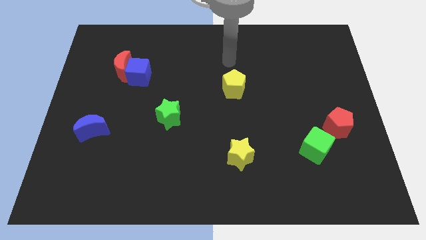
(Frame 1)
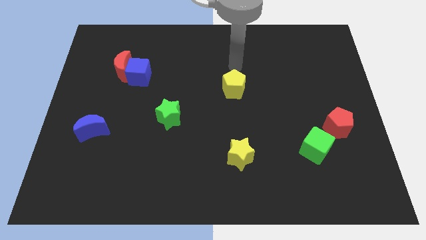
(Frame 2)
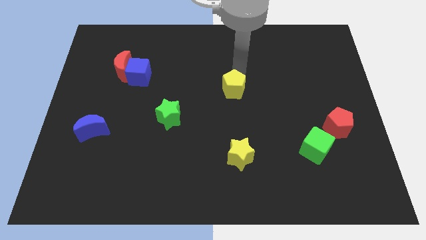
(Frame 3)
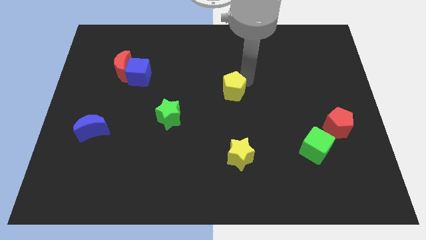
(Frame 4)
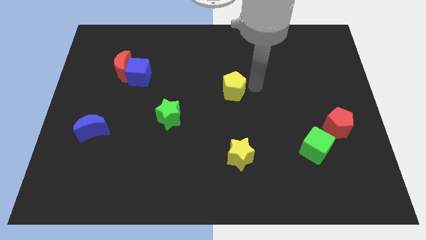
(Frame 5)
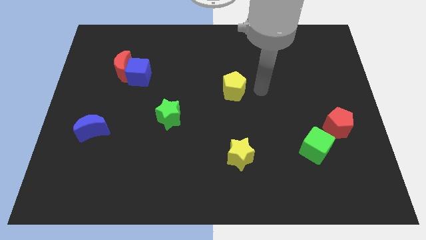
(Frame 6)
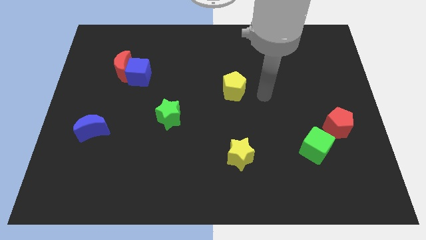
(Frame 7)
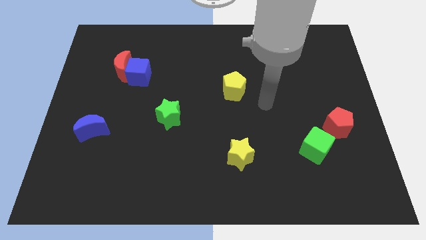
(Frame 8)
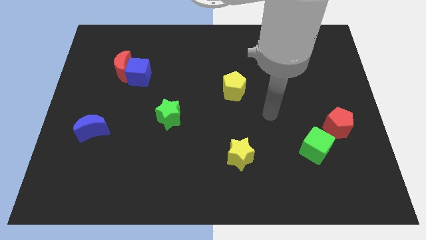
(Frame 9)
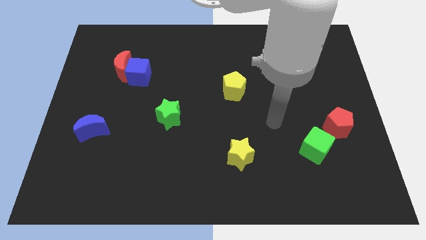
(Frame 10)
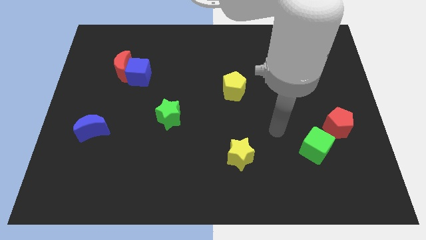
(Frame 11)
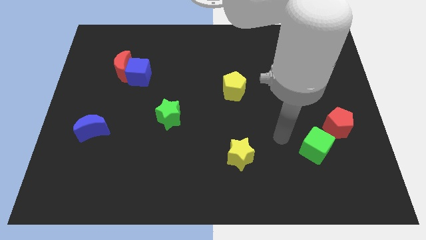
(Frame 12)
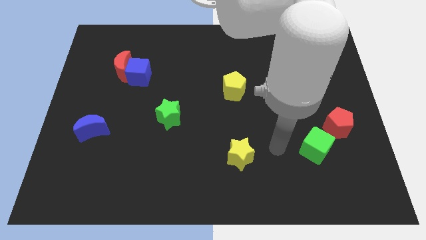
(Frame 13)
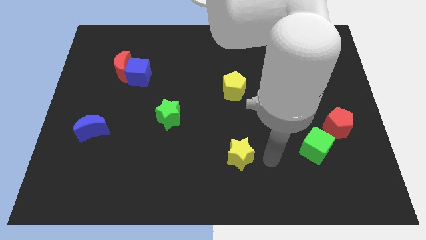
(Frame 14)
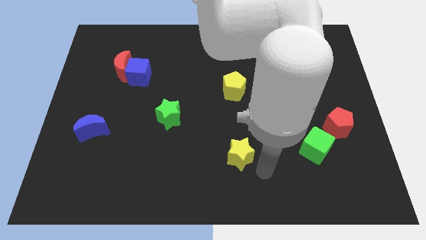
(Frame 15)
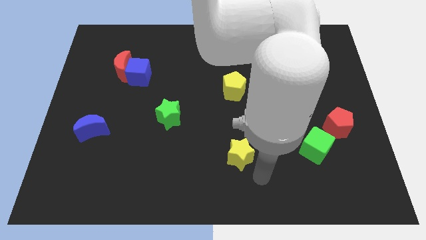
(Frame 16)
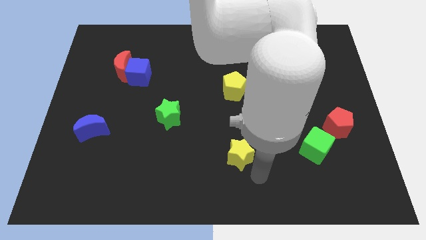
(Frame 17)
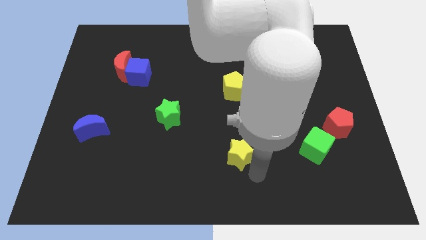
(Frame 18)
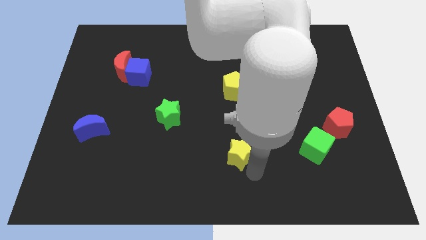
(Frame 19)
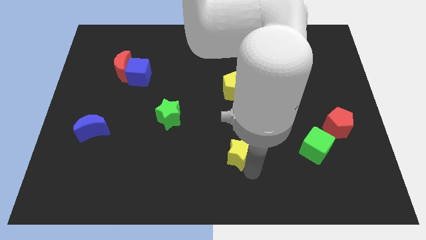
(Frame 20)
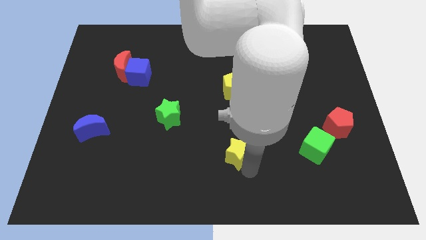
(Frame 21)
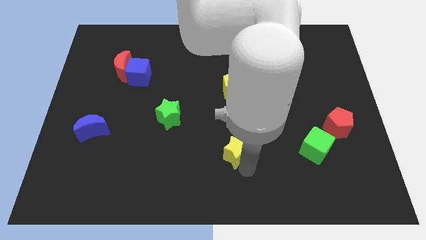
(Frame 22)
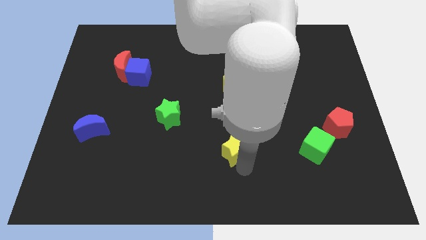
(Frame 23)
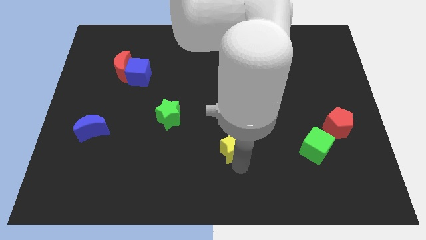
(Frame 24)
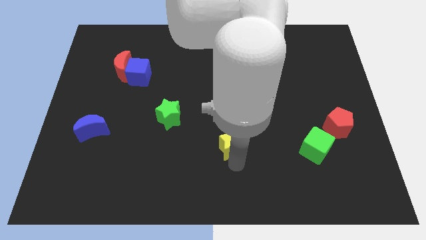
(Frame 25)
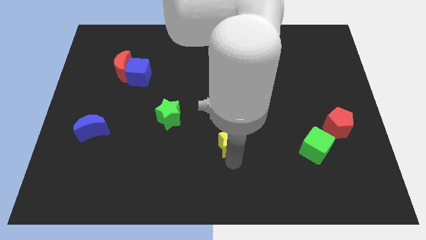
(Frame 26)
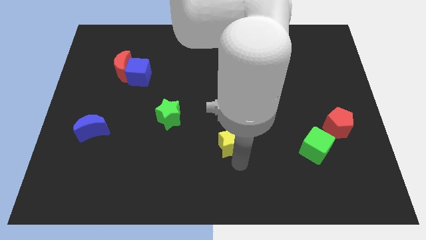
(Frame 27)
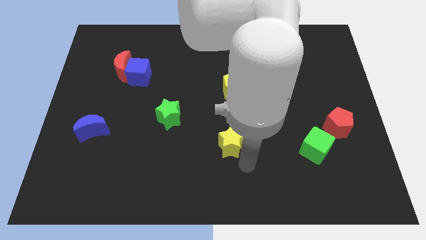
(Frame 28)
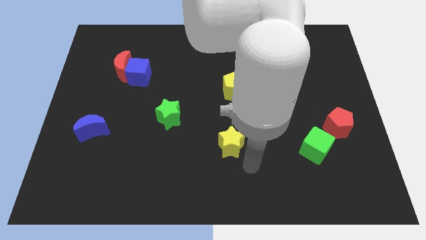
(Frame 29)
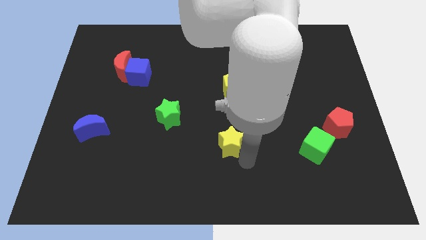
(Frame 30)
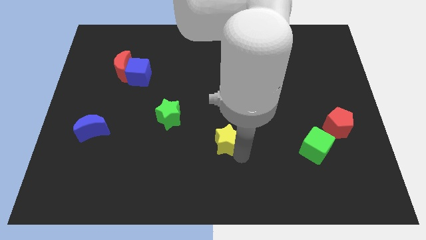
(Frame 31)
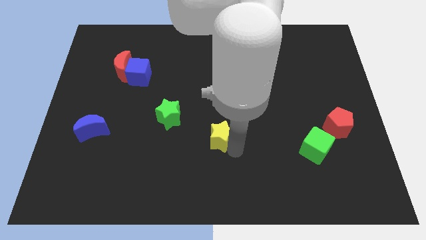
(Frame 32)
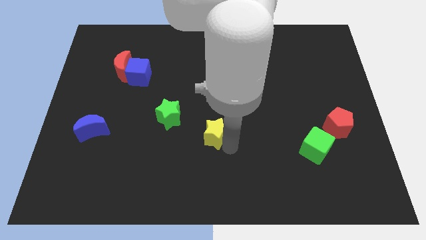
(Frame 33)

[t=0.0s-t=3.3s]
slide the yellow star diagonally up and to the left a little

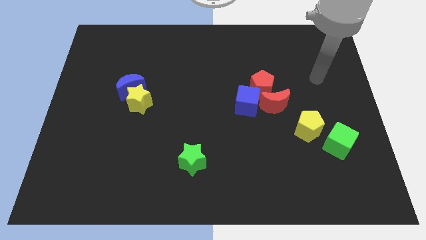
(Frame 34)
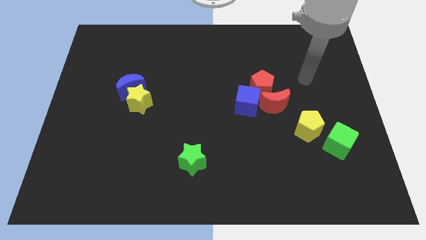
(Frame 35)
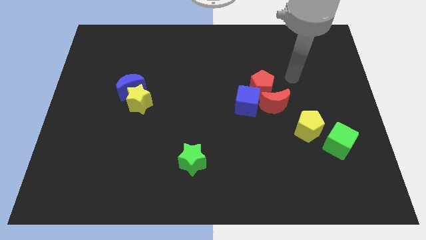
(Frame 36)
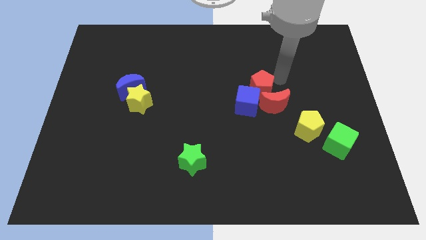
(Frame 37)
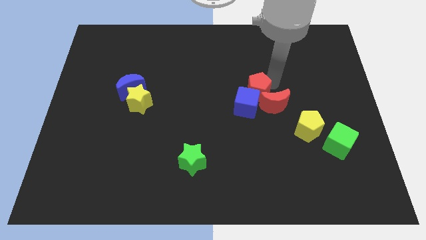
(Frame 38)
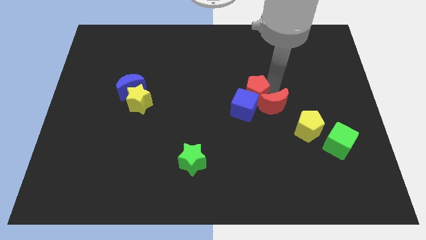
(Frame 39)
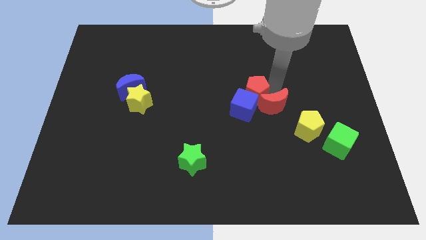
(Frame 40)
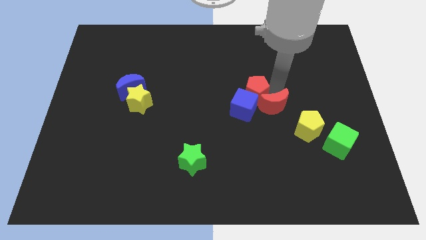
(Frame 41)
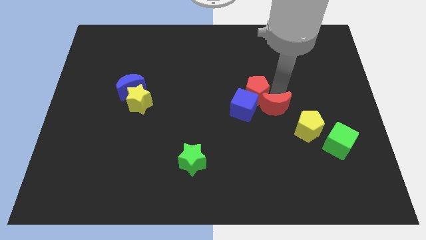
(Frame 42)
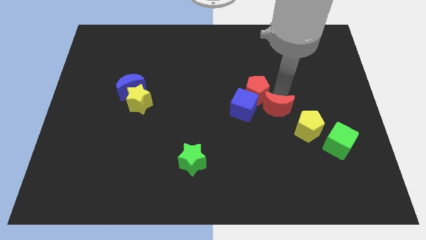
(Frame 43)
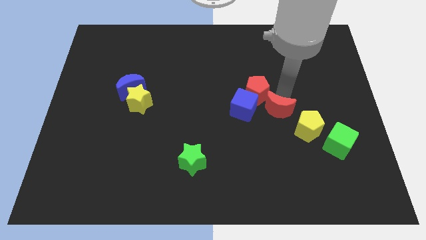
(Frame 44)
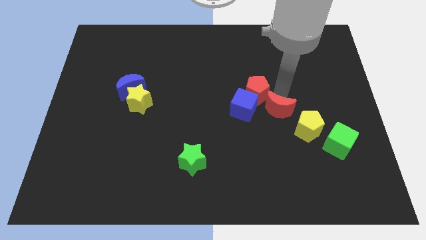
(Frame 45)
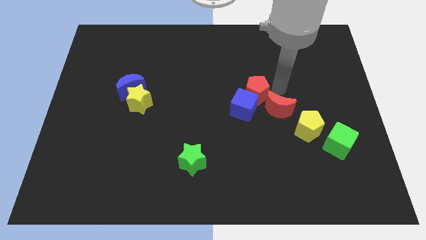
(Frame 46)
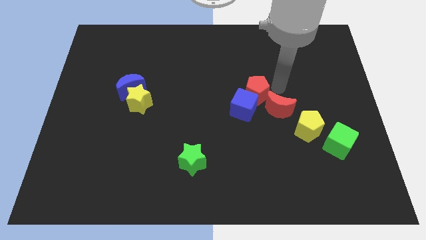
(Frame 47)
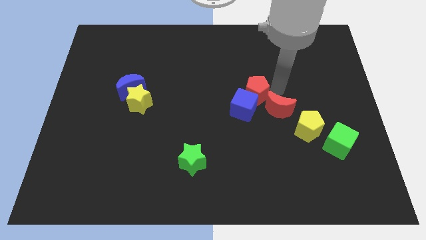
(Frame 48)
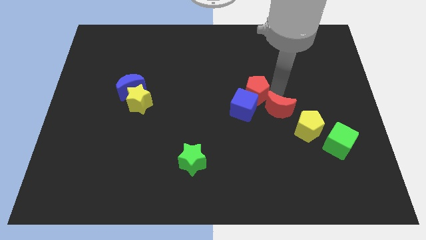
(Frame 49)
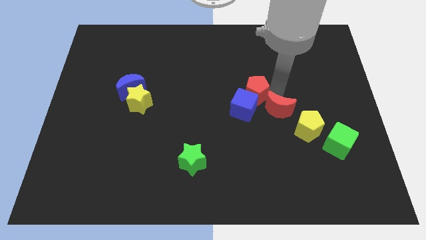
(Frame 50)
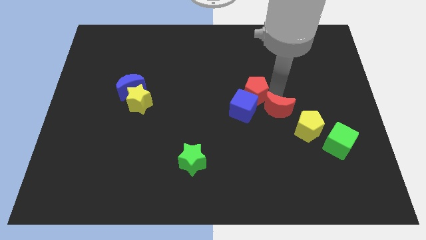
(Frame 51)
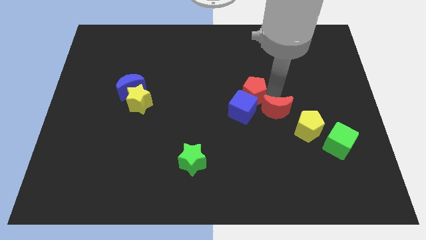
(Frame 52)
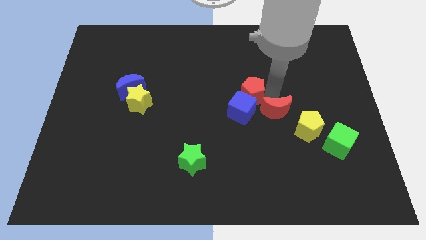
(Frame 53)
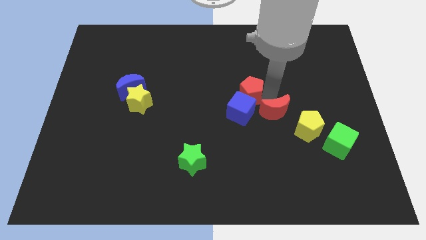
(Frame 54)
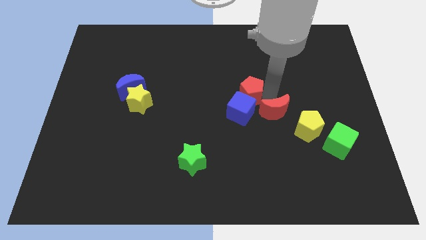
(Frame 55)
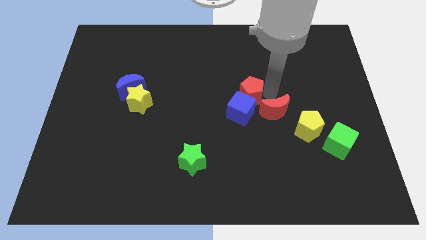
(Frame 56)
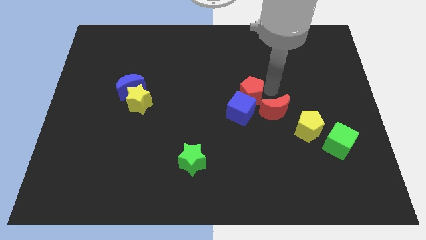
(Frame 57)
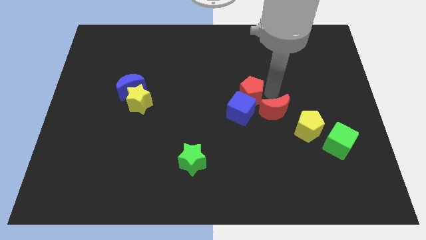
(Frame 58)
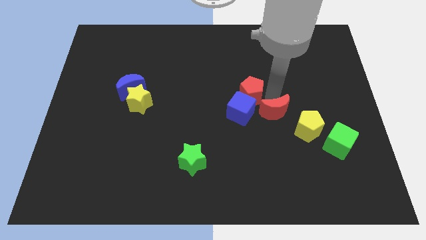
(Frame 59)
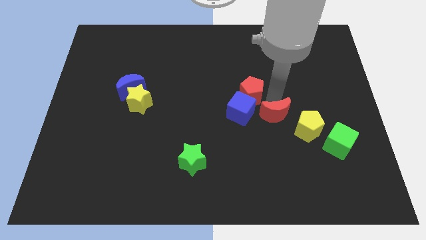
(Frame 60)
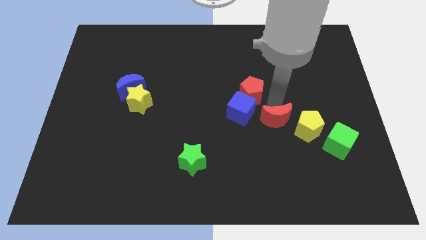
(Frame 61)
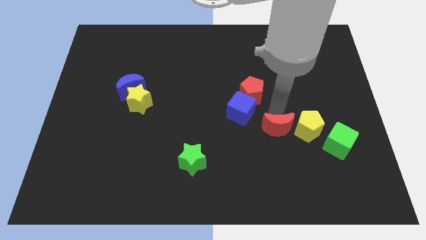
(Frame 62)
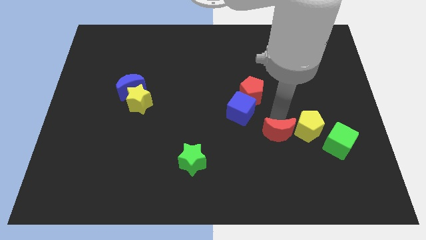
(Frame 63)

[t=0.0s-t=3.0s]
slightly move the red moon downwards

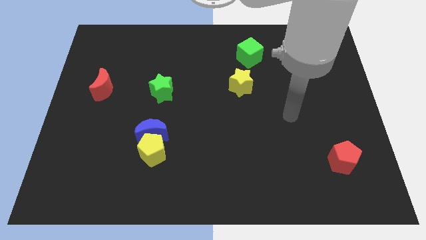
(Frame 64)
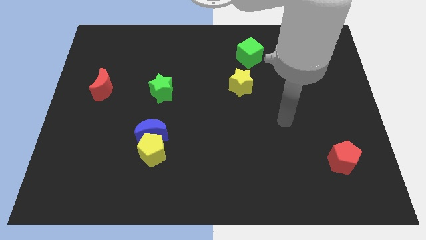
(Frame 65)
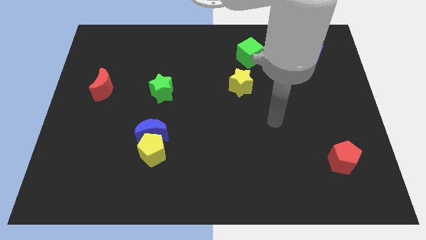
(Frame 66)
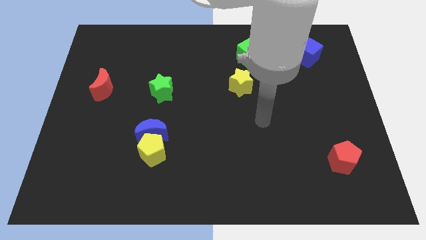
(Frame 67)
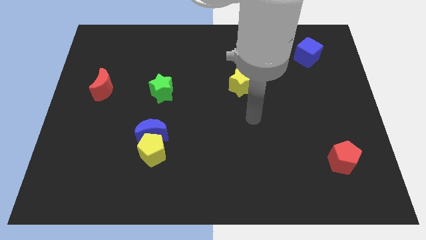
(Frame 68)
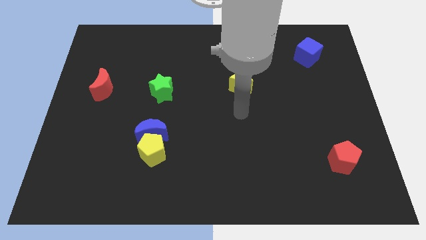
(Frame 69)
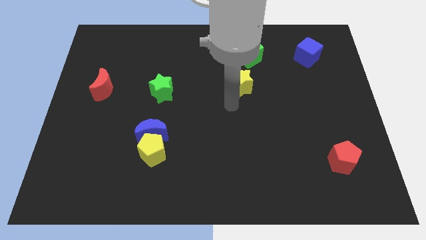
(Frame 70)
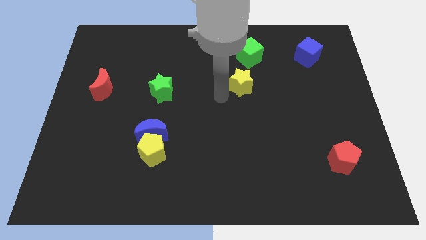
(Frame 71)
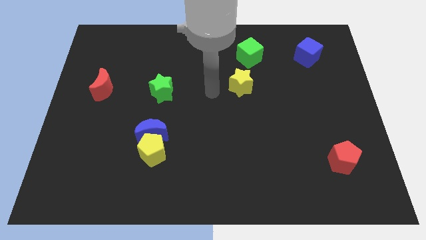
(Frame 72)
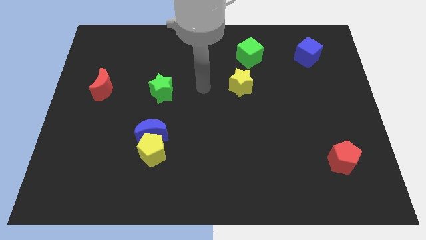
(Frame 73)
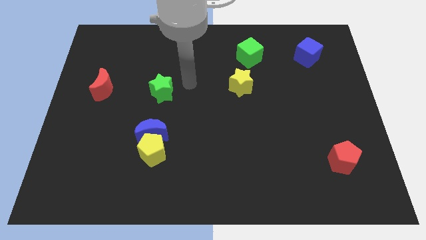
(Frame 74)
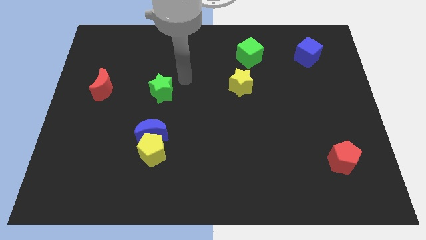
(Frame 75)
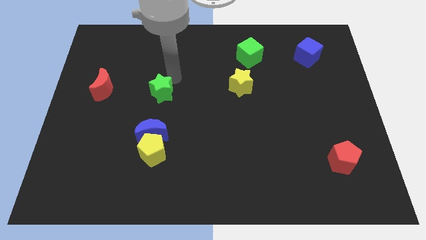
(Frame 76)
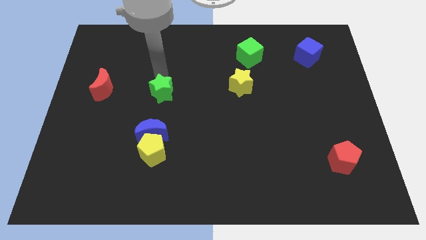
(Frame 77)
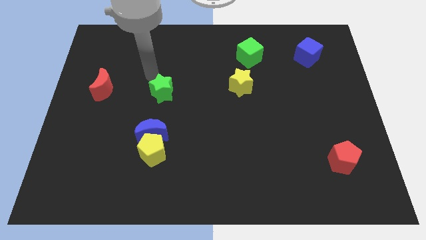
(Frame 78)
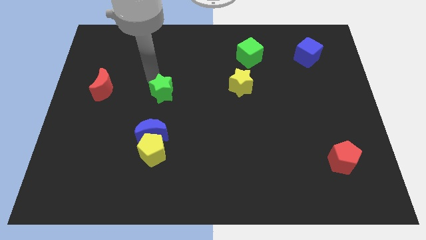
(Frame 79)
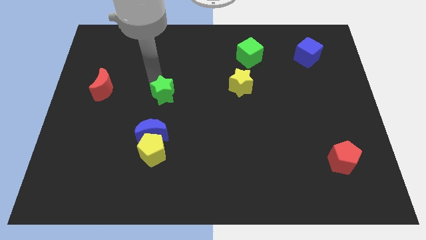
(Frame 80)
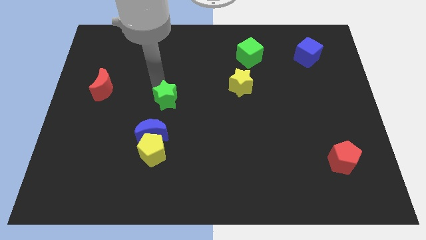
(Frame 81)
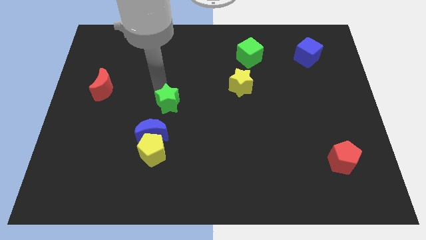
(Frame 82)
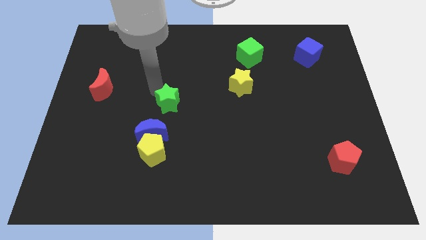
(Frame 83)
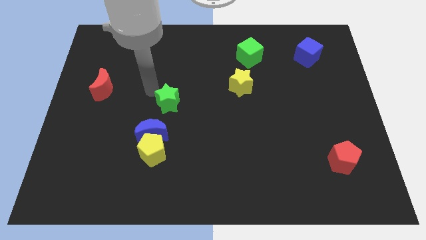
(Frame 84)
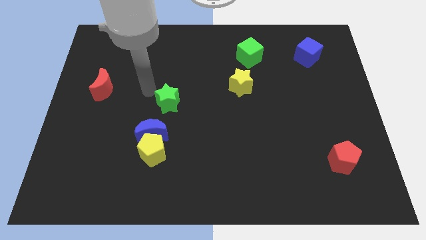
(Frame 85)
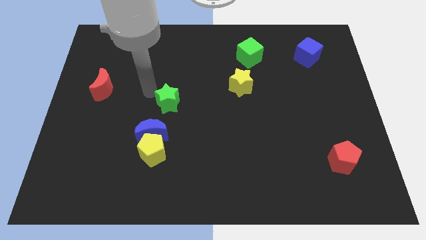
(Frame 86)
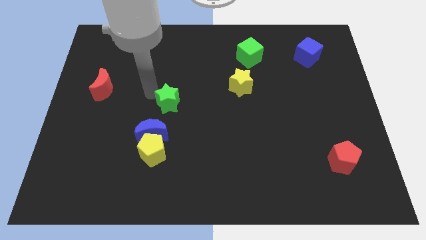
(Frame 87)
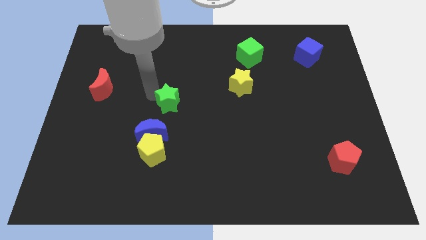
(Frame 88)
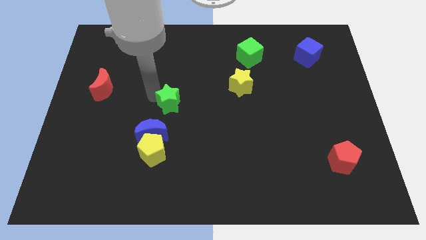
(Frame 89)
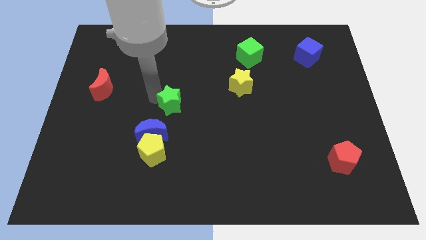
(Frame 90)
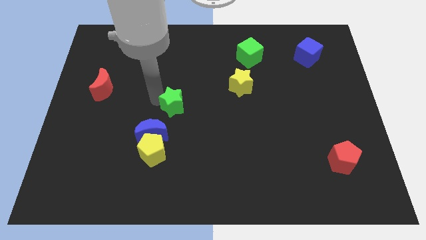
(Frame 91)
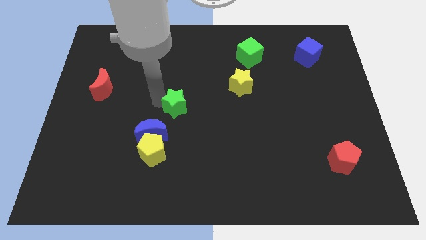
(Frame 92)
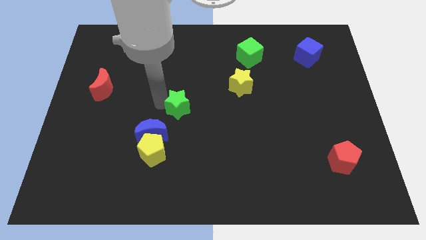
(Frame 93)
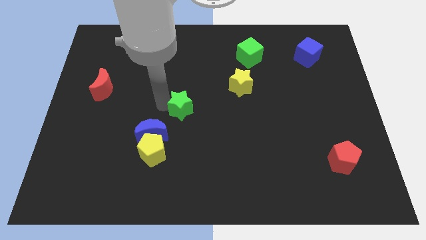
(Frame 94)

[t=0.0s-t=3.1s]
push the green star down and to the right somewhat
